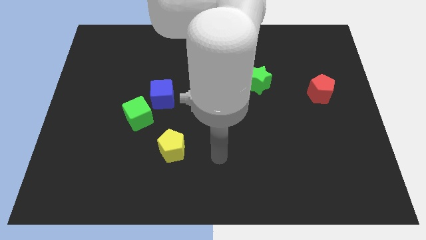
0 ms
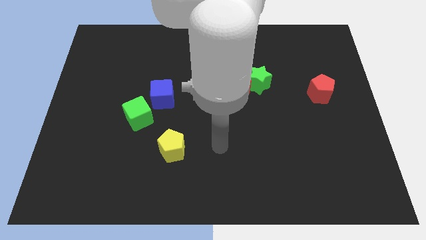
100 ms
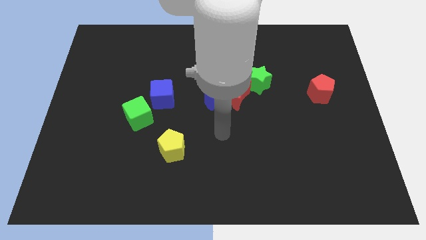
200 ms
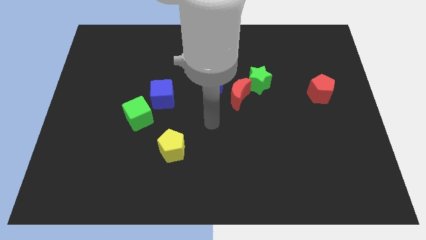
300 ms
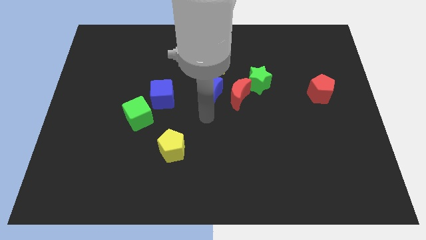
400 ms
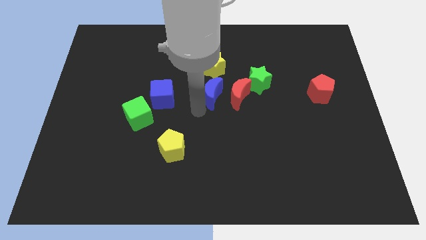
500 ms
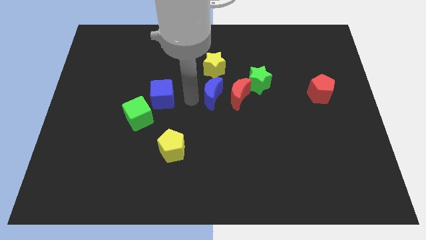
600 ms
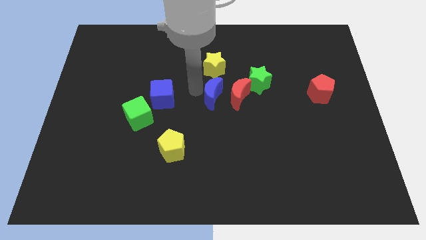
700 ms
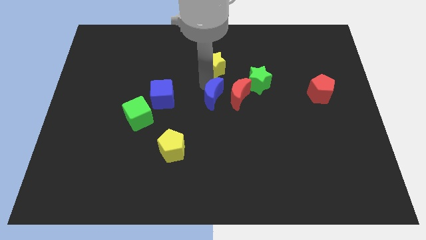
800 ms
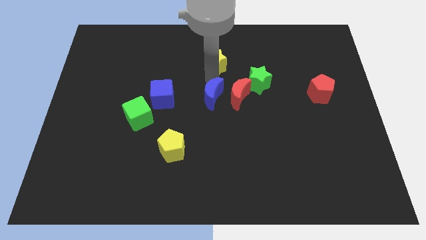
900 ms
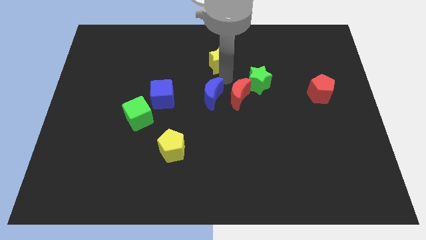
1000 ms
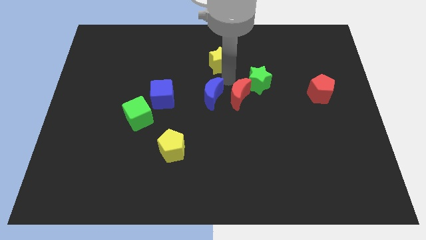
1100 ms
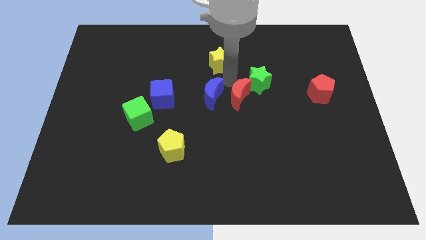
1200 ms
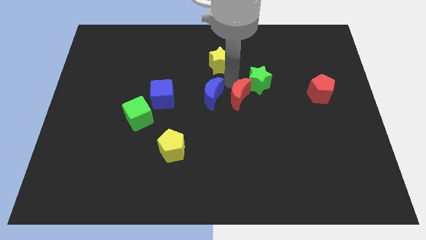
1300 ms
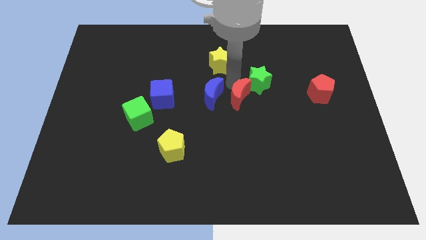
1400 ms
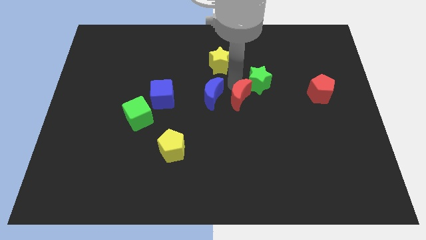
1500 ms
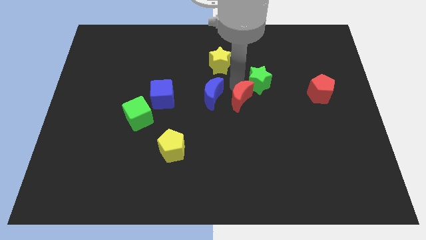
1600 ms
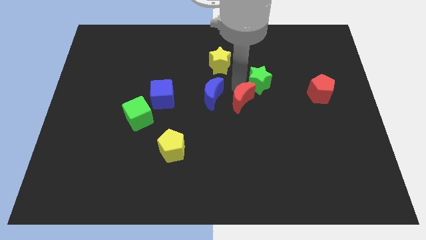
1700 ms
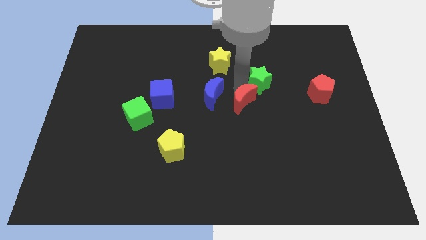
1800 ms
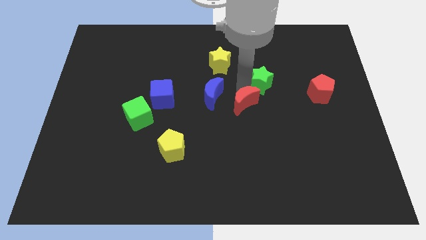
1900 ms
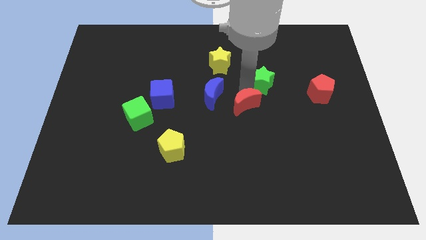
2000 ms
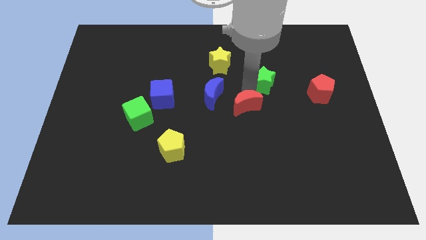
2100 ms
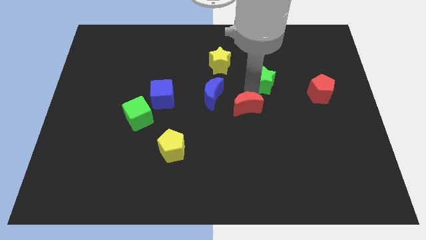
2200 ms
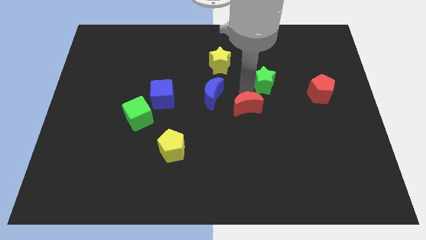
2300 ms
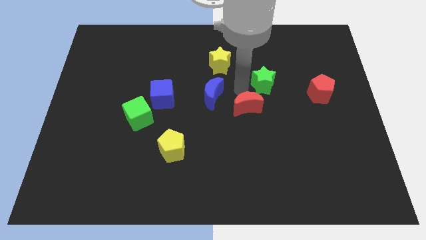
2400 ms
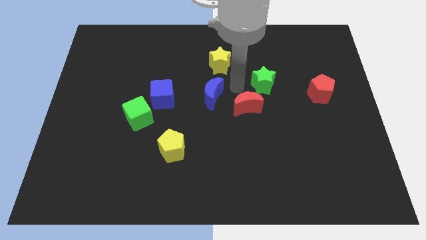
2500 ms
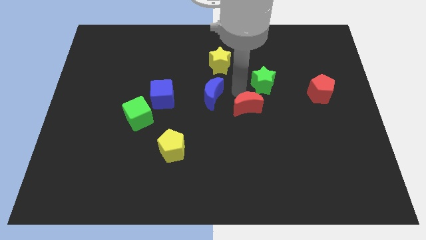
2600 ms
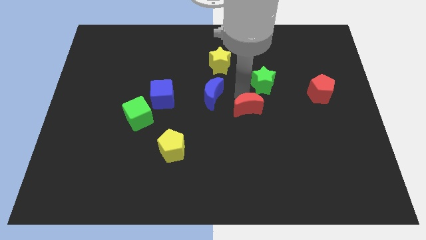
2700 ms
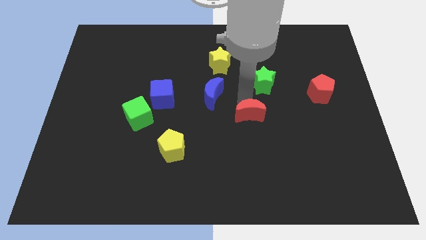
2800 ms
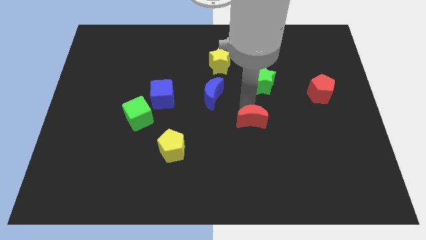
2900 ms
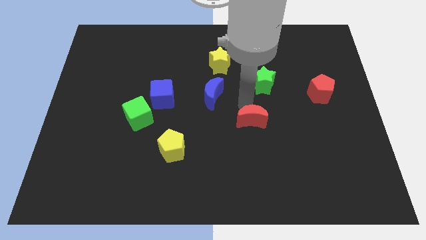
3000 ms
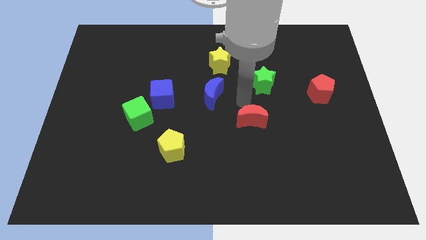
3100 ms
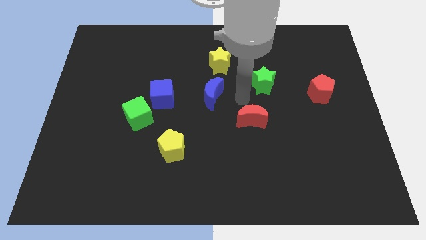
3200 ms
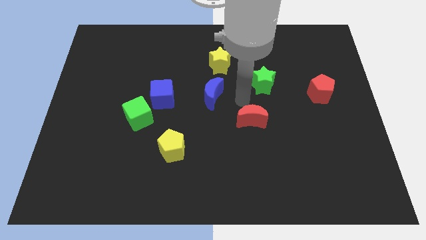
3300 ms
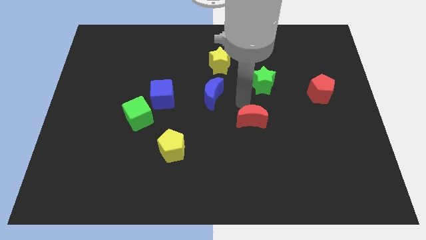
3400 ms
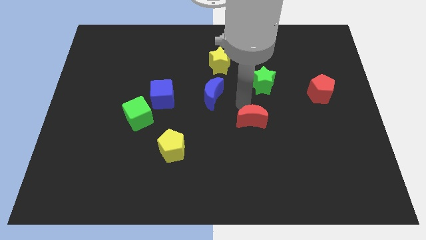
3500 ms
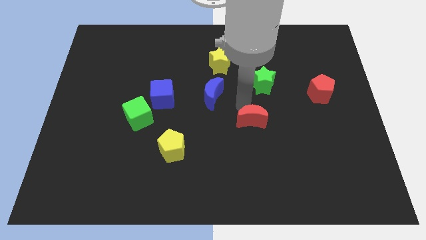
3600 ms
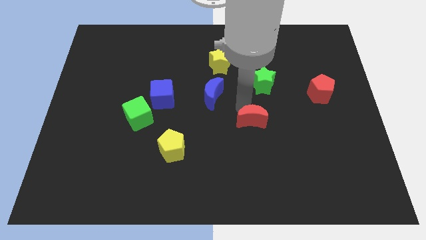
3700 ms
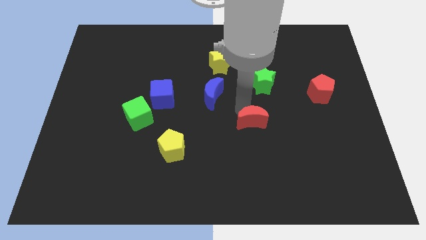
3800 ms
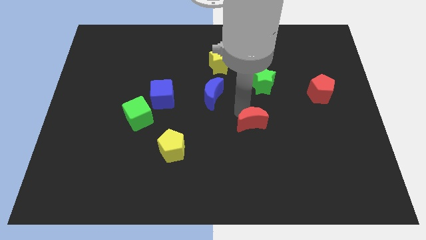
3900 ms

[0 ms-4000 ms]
separate the red moon from the blue moon and green star

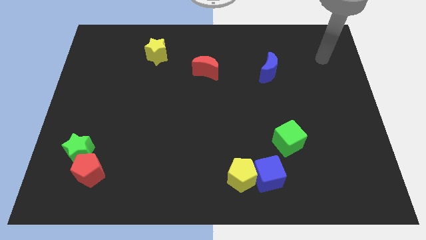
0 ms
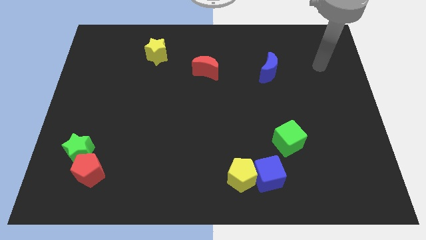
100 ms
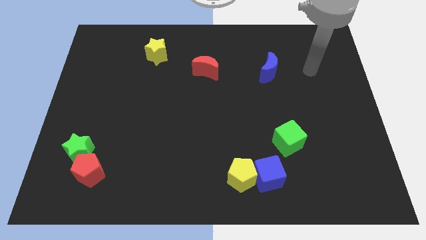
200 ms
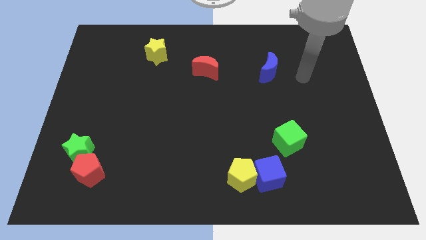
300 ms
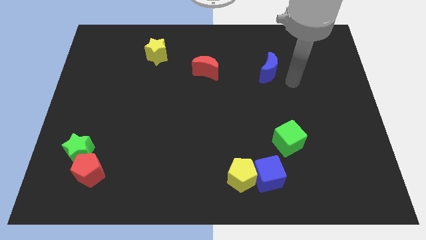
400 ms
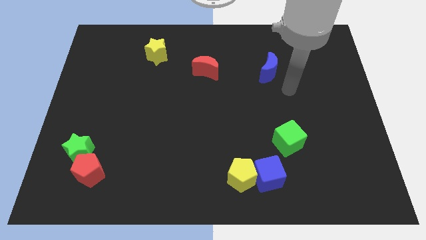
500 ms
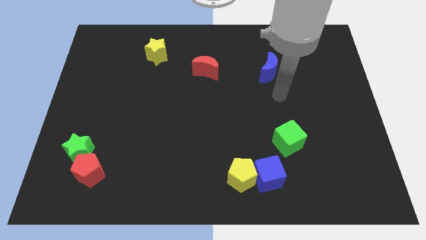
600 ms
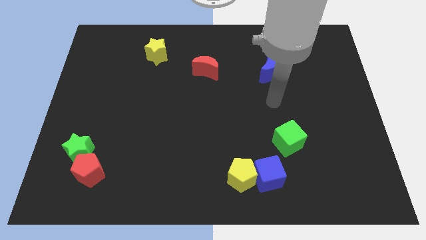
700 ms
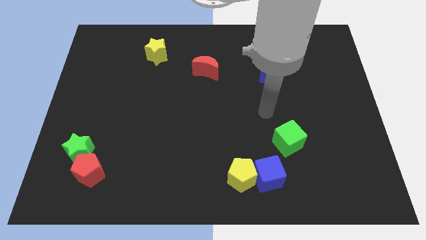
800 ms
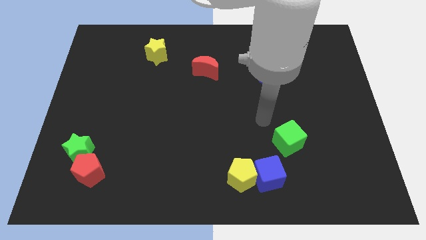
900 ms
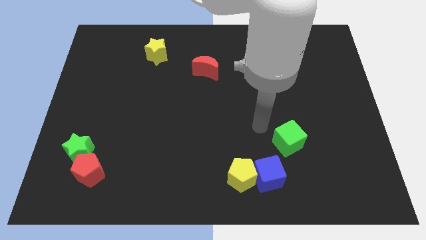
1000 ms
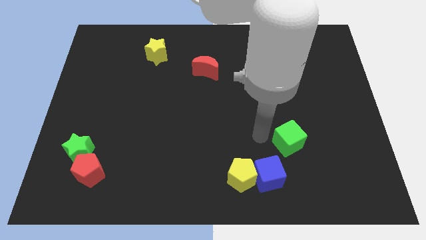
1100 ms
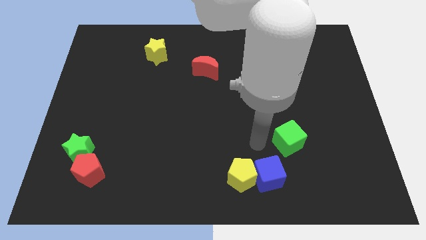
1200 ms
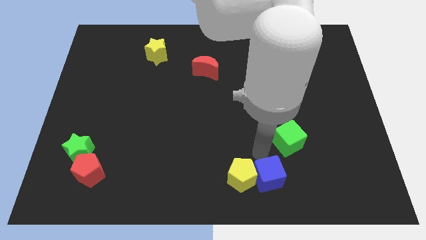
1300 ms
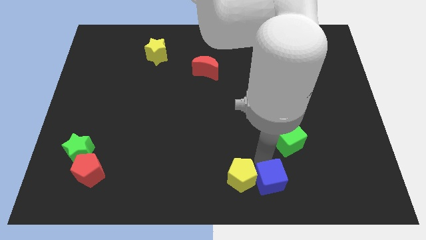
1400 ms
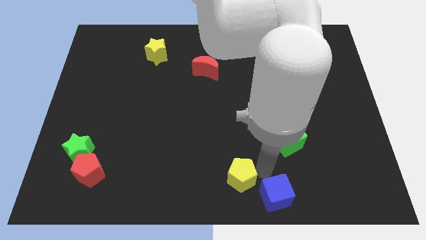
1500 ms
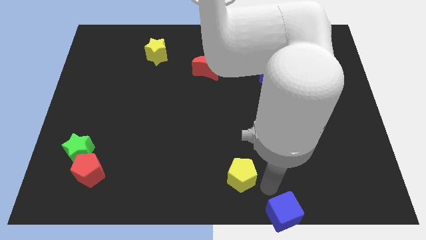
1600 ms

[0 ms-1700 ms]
separate the yellow pentagon from the blue cube

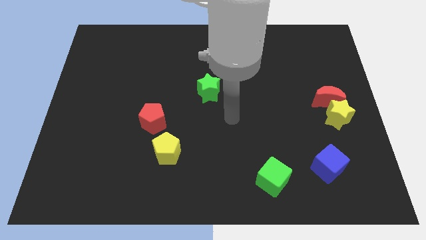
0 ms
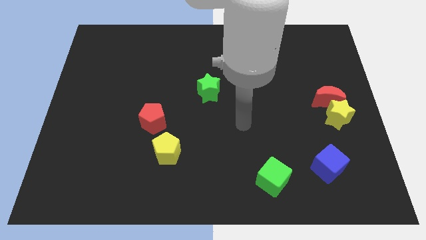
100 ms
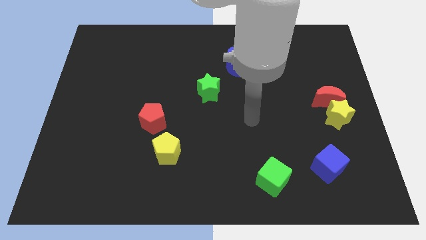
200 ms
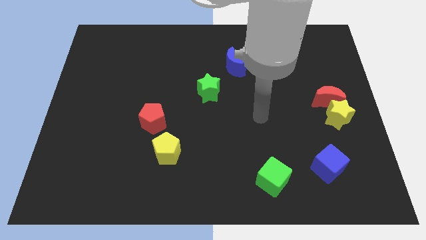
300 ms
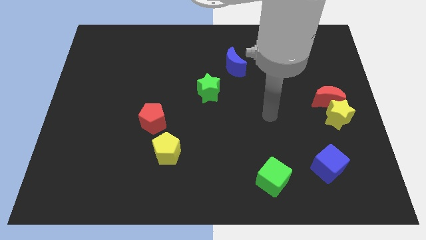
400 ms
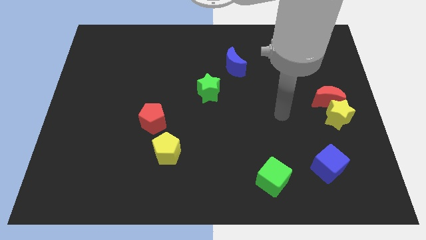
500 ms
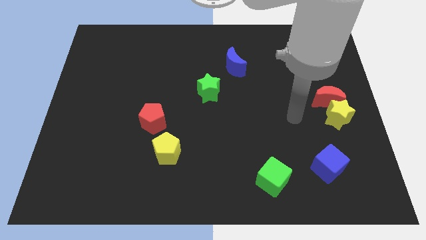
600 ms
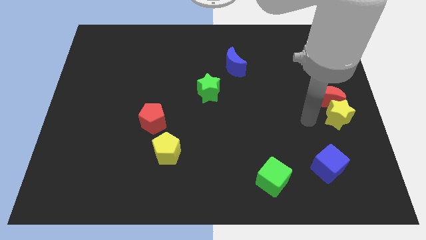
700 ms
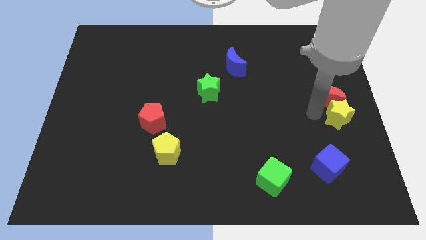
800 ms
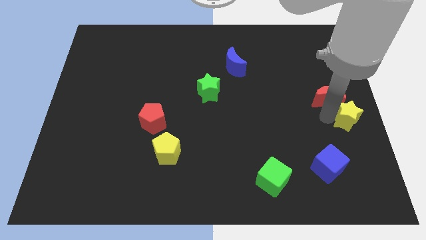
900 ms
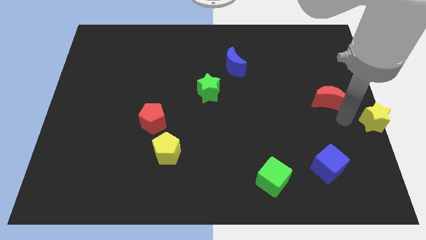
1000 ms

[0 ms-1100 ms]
separate the red moon from the yellow star

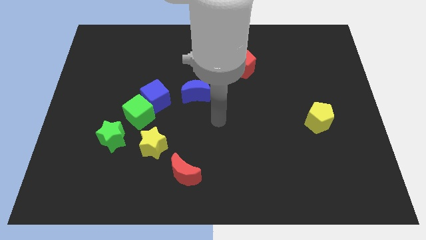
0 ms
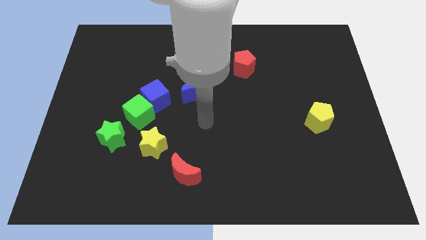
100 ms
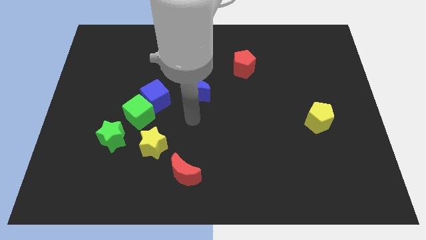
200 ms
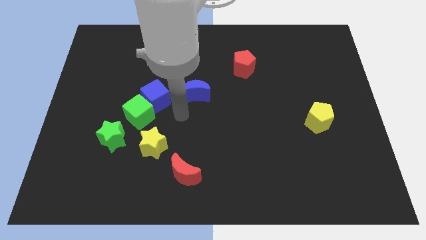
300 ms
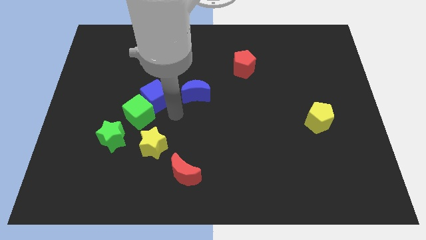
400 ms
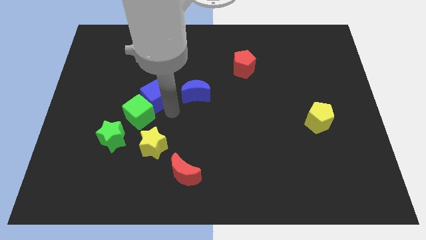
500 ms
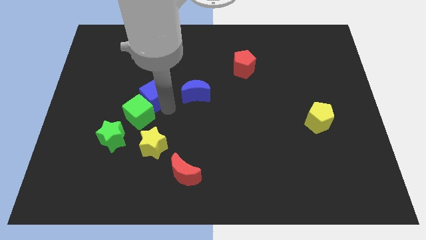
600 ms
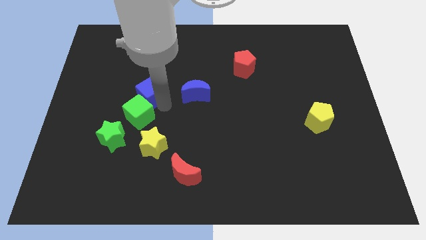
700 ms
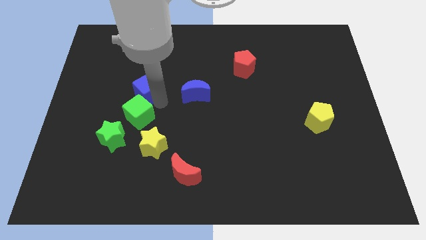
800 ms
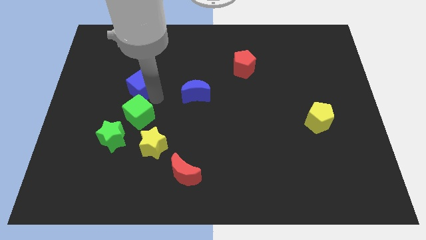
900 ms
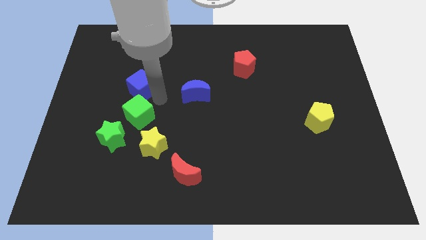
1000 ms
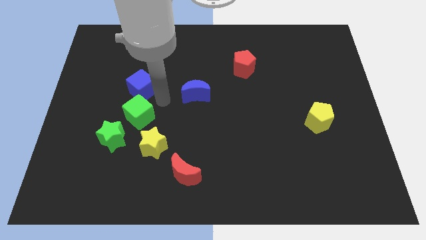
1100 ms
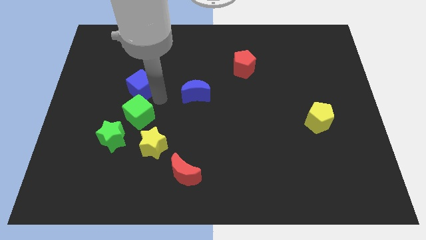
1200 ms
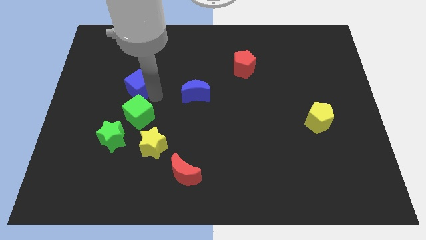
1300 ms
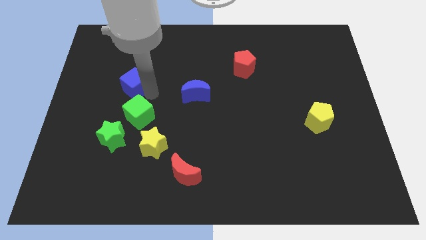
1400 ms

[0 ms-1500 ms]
move the blue cube away from the green cube and blue moon

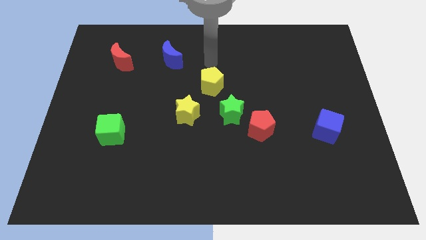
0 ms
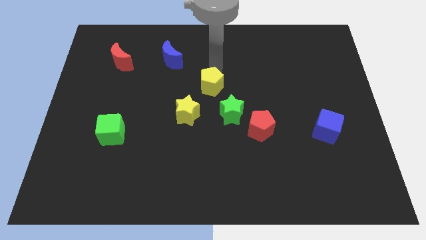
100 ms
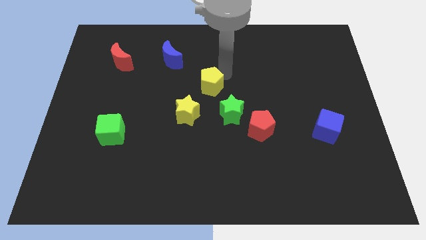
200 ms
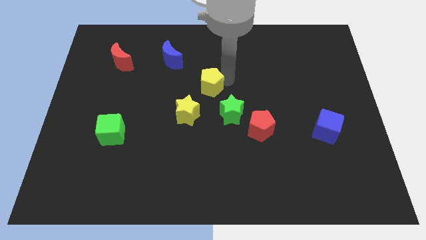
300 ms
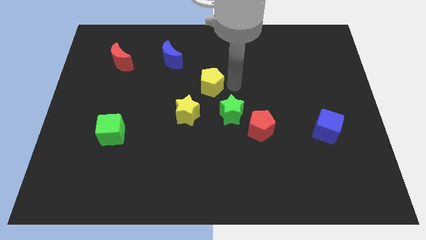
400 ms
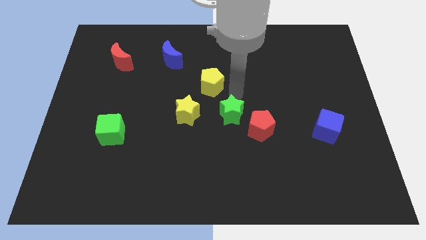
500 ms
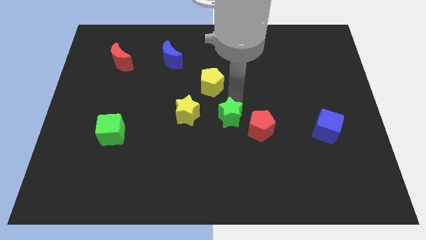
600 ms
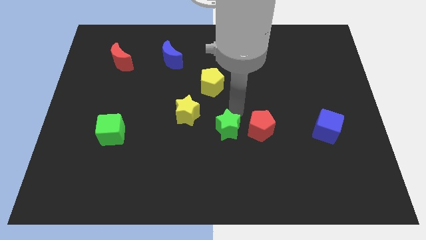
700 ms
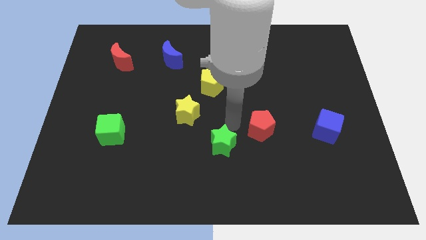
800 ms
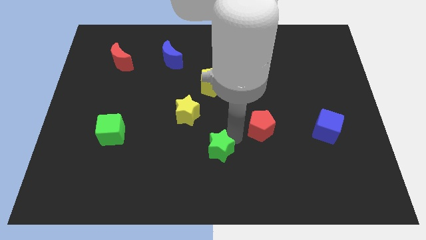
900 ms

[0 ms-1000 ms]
separate the red pentagon from the green star
